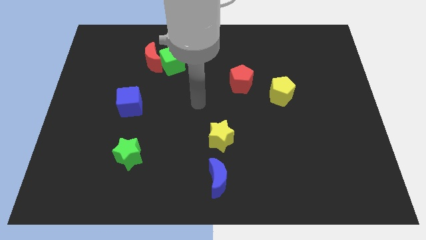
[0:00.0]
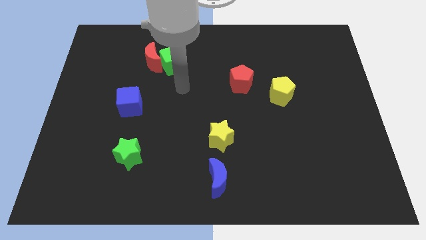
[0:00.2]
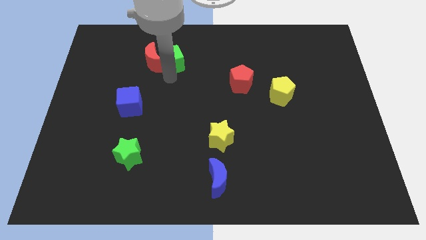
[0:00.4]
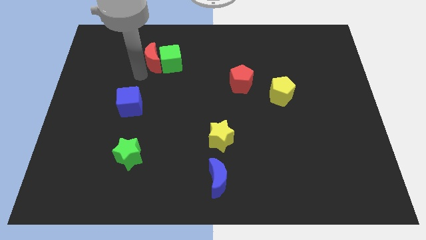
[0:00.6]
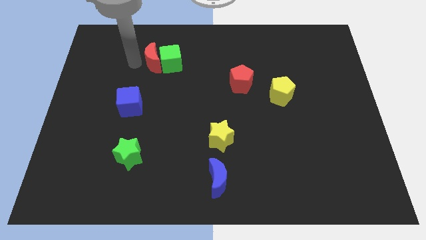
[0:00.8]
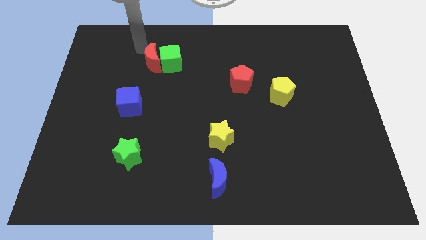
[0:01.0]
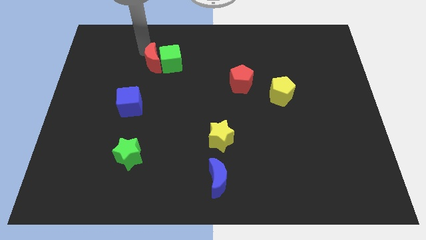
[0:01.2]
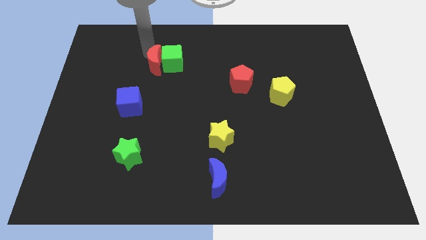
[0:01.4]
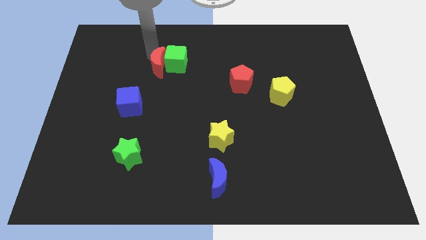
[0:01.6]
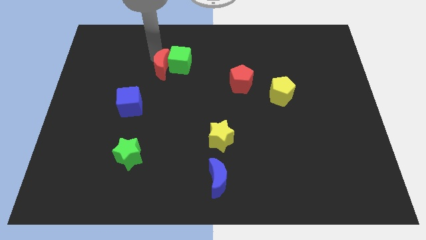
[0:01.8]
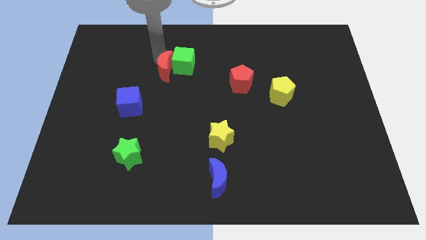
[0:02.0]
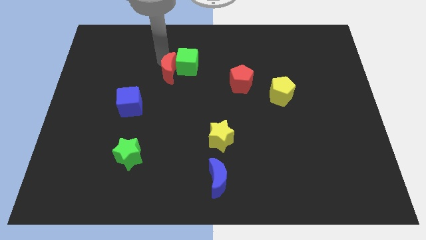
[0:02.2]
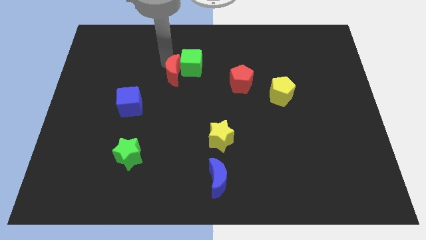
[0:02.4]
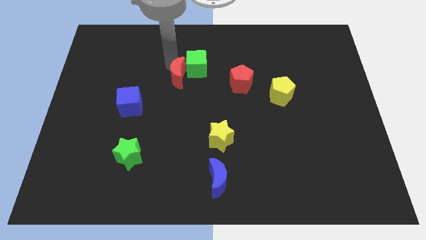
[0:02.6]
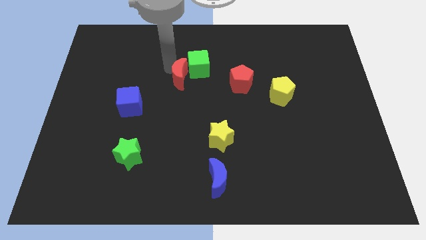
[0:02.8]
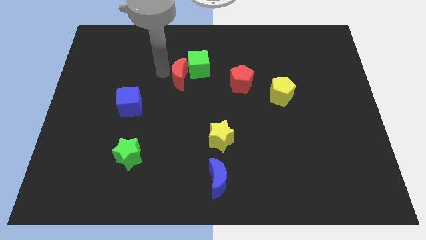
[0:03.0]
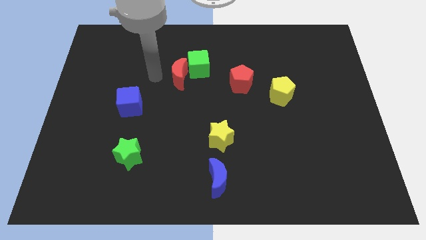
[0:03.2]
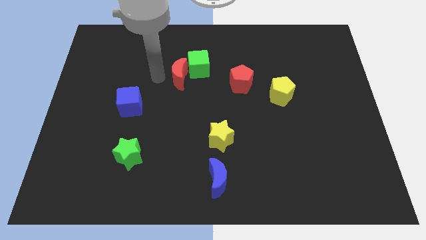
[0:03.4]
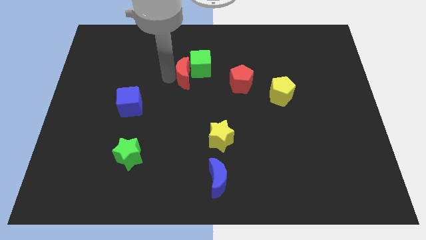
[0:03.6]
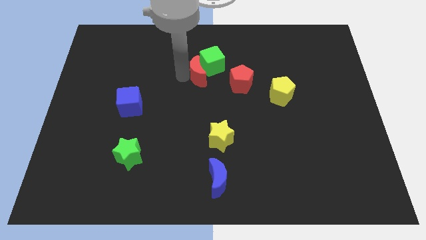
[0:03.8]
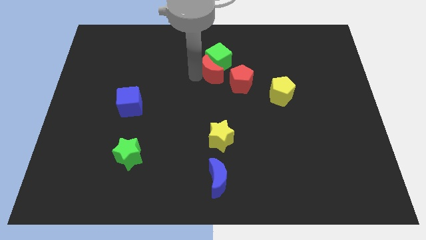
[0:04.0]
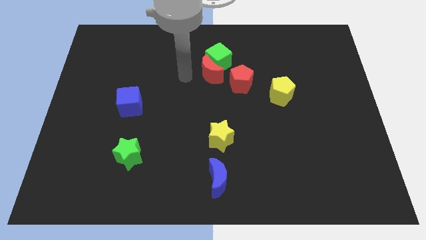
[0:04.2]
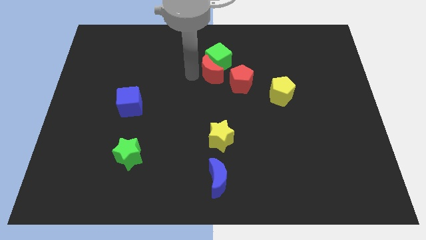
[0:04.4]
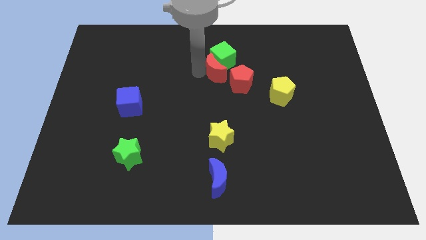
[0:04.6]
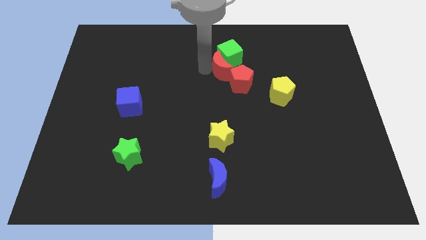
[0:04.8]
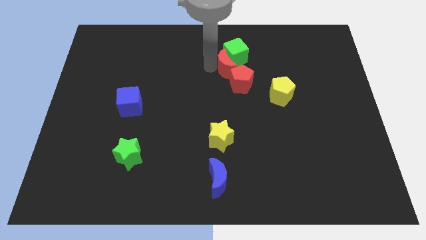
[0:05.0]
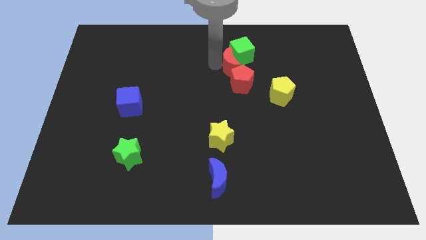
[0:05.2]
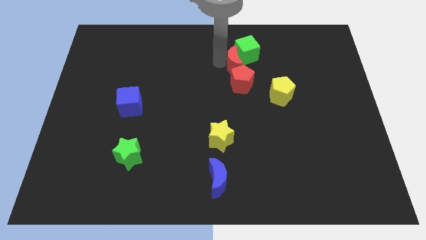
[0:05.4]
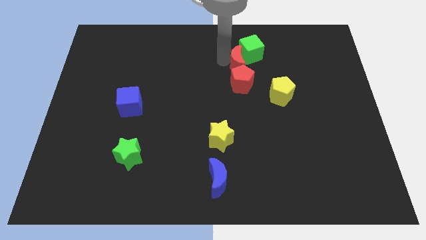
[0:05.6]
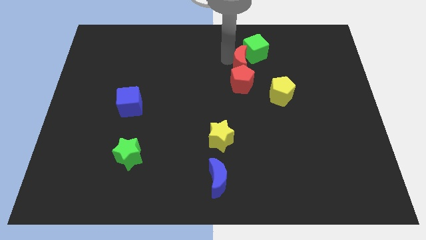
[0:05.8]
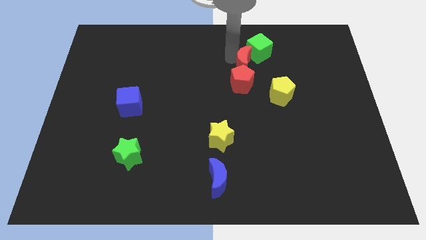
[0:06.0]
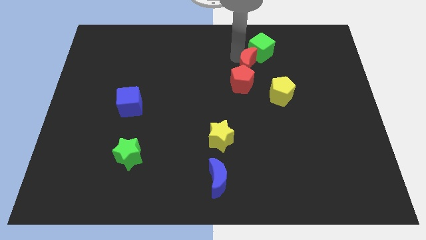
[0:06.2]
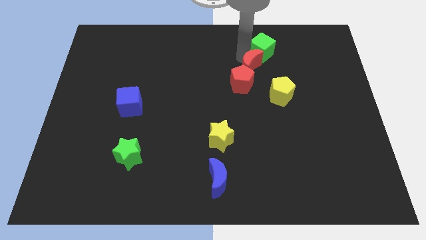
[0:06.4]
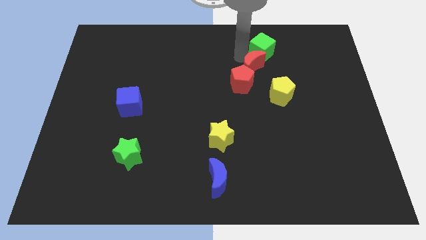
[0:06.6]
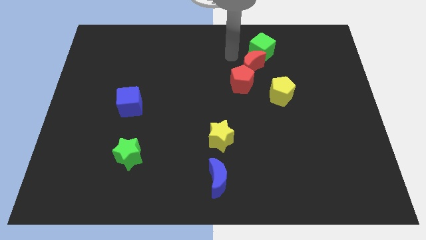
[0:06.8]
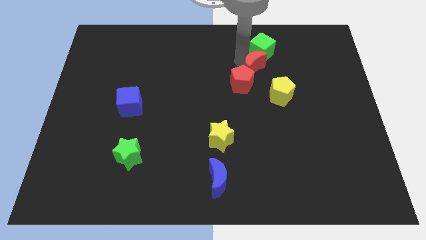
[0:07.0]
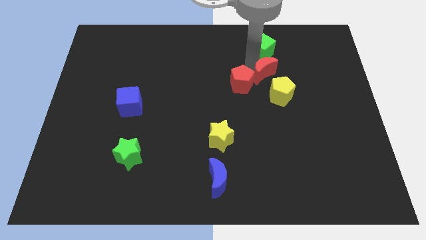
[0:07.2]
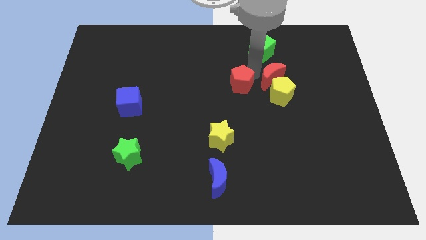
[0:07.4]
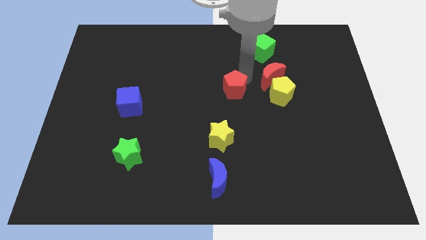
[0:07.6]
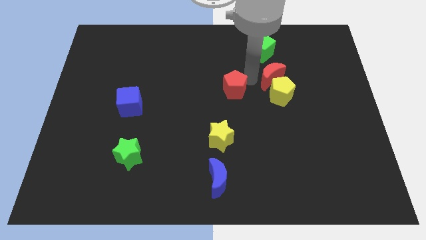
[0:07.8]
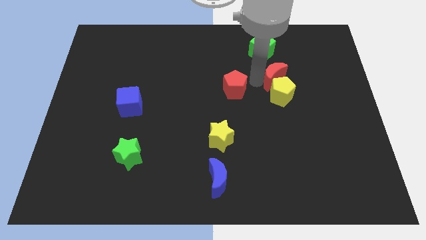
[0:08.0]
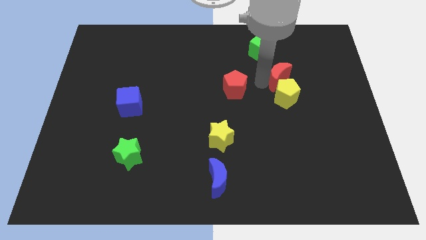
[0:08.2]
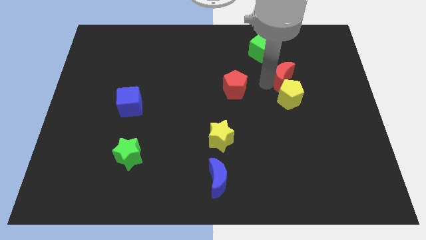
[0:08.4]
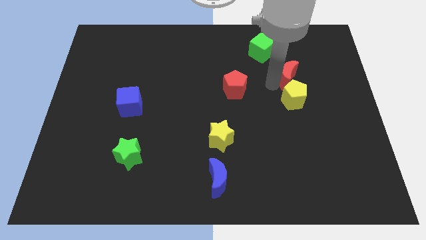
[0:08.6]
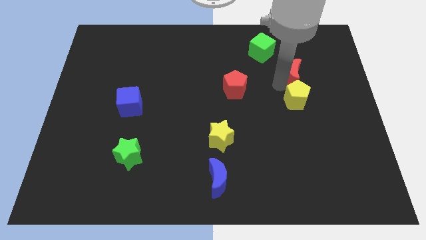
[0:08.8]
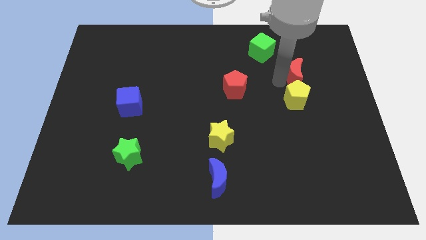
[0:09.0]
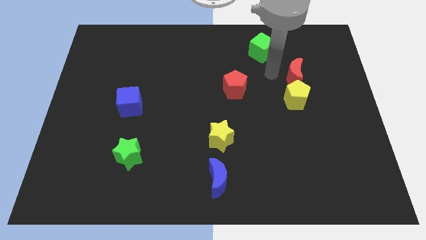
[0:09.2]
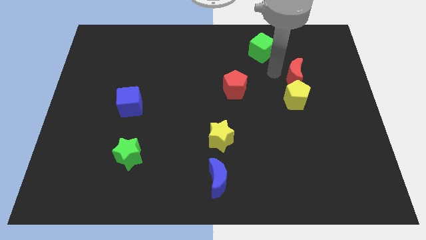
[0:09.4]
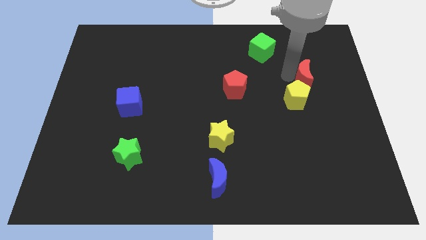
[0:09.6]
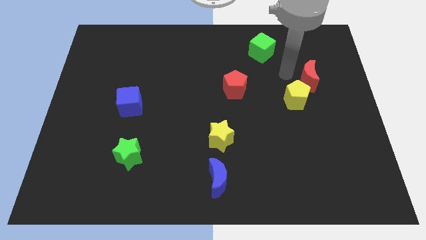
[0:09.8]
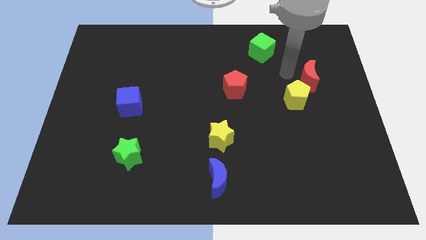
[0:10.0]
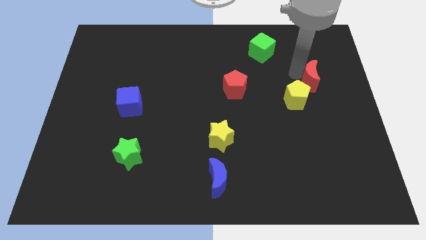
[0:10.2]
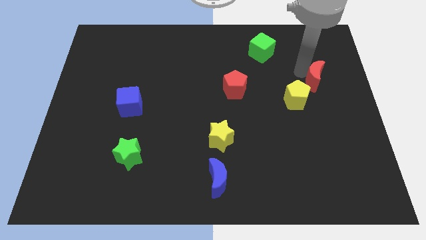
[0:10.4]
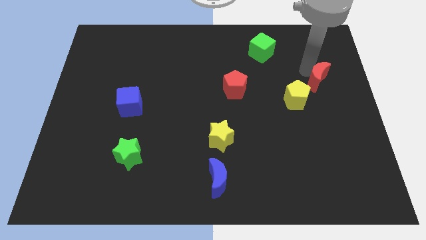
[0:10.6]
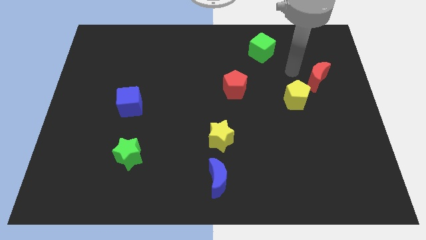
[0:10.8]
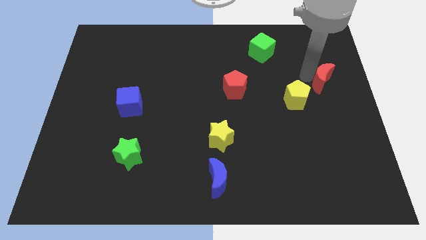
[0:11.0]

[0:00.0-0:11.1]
move the red moon to the center right

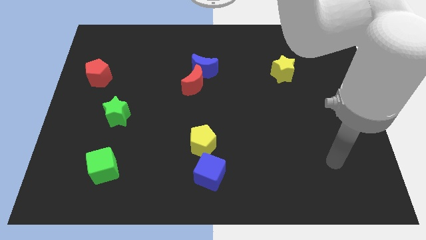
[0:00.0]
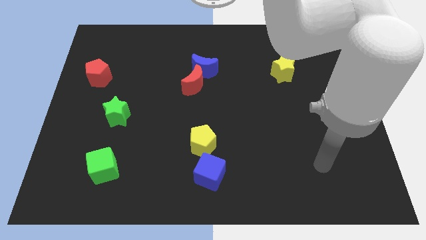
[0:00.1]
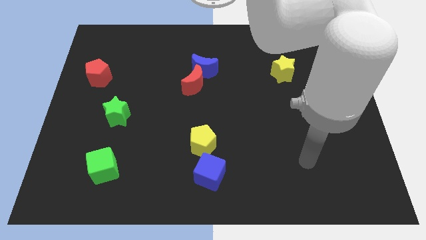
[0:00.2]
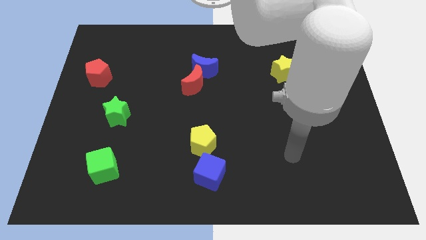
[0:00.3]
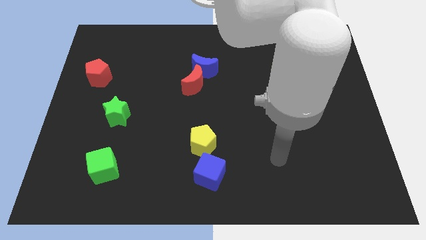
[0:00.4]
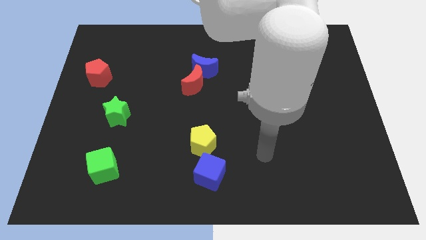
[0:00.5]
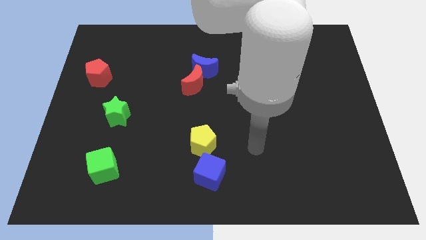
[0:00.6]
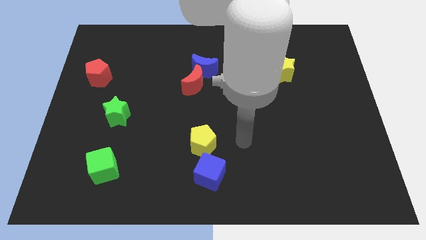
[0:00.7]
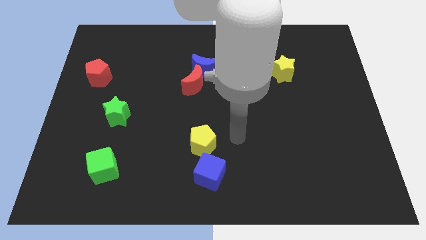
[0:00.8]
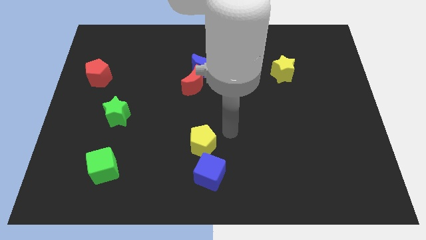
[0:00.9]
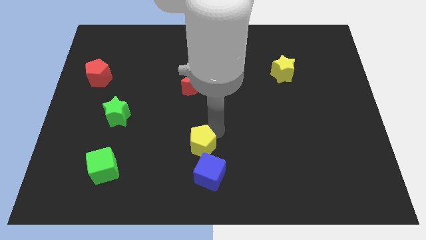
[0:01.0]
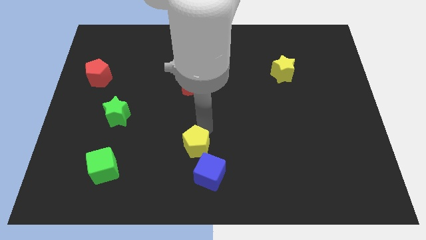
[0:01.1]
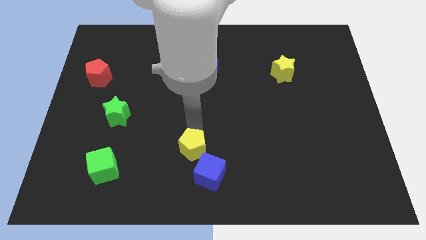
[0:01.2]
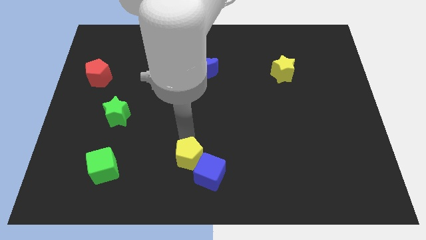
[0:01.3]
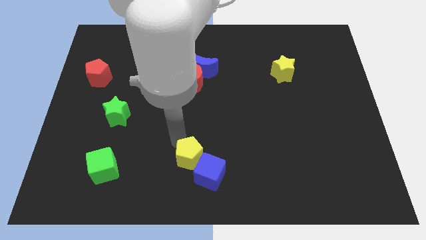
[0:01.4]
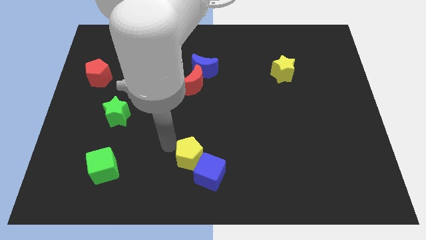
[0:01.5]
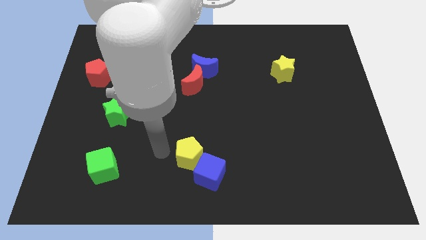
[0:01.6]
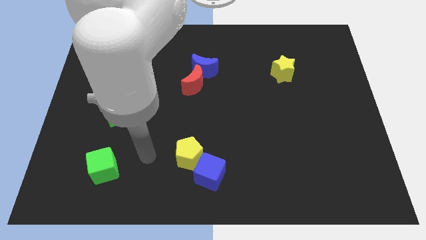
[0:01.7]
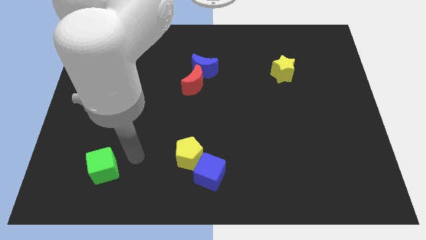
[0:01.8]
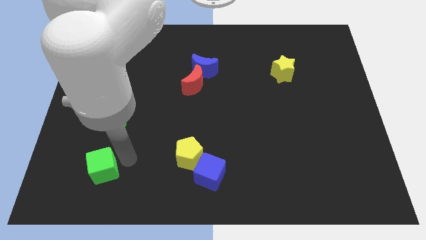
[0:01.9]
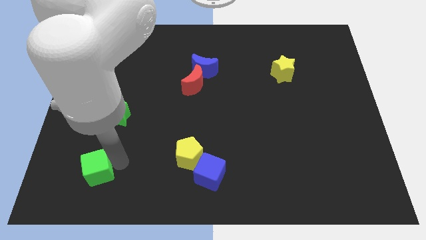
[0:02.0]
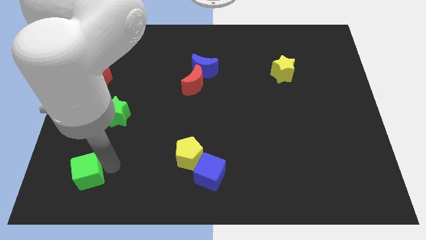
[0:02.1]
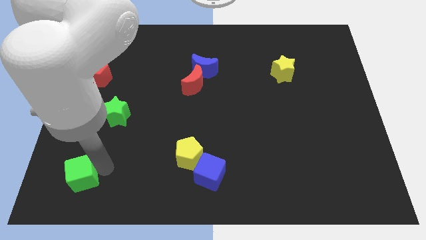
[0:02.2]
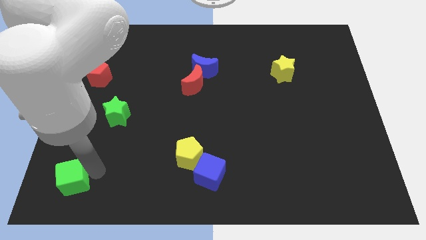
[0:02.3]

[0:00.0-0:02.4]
push the green cube to the bottom left corner
